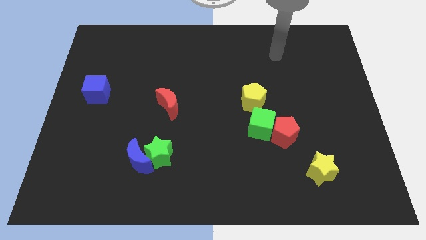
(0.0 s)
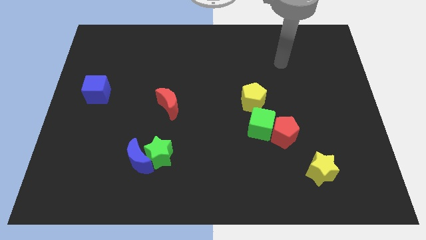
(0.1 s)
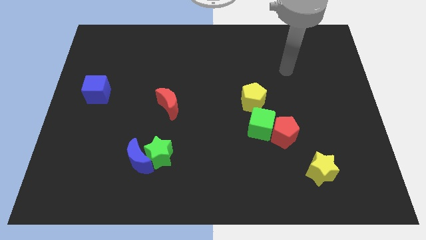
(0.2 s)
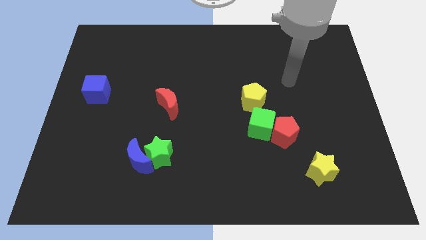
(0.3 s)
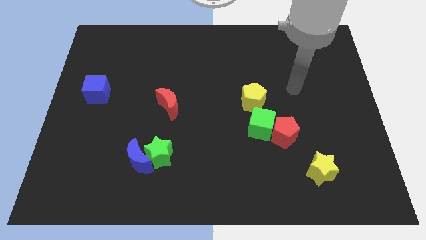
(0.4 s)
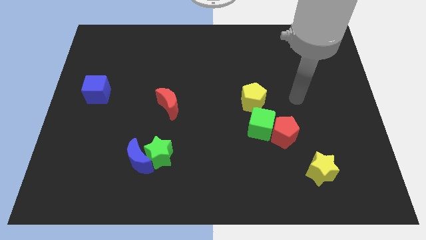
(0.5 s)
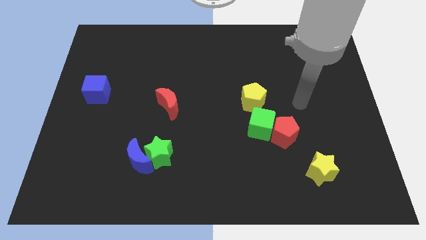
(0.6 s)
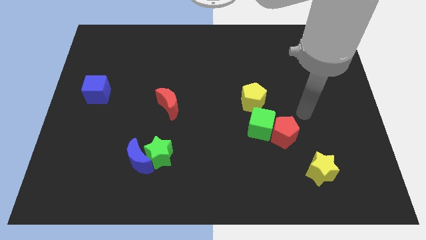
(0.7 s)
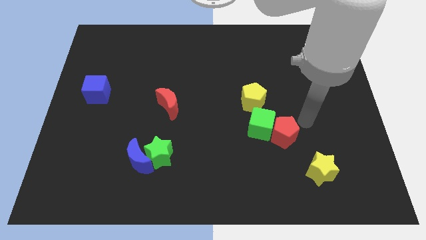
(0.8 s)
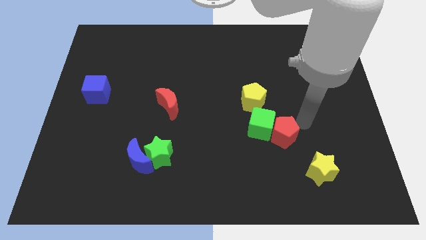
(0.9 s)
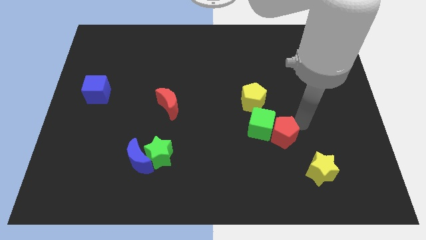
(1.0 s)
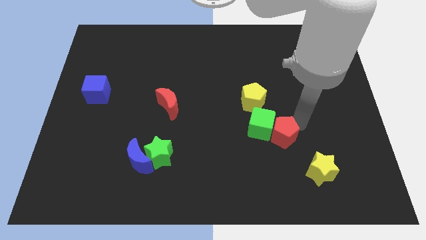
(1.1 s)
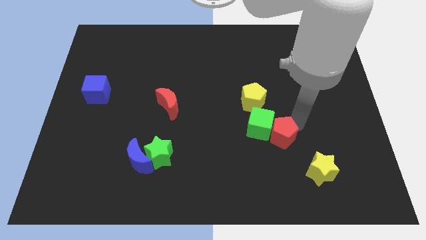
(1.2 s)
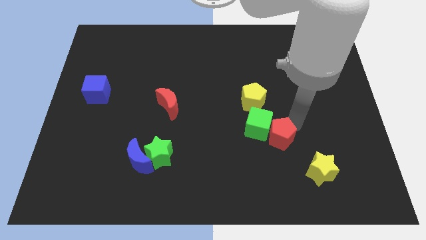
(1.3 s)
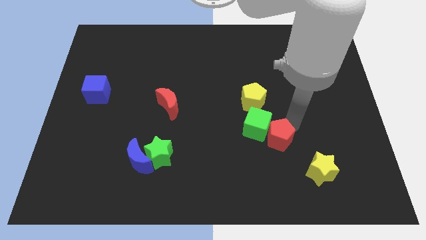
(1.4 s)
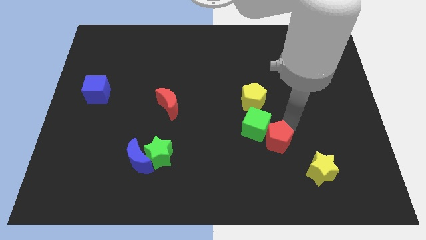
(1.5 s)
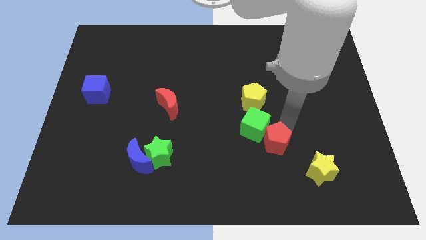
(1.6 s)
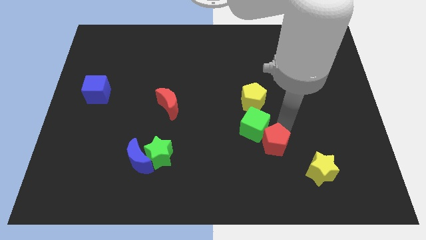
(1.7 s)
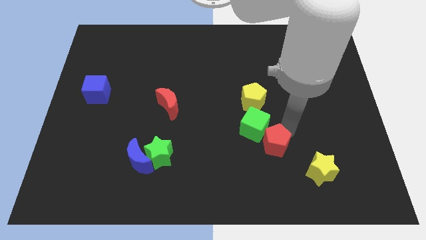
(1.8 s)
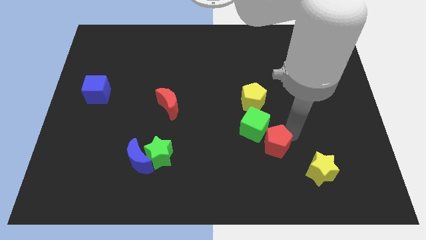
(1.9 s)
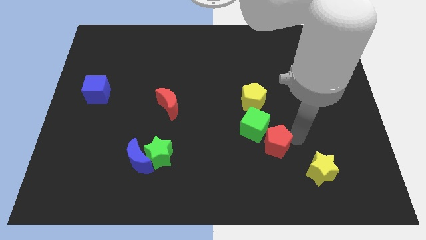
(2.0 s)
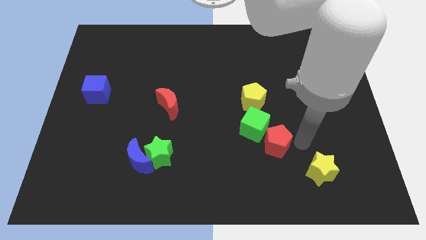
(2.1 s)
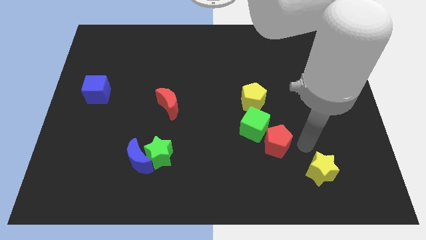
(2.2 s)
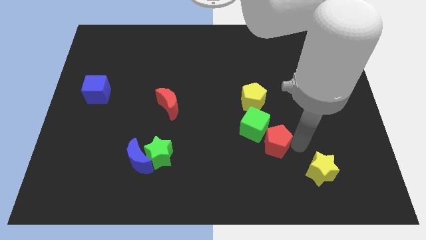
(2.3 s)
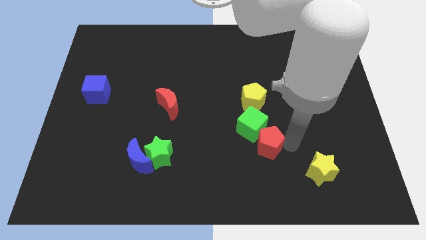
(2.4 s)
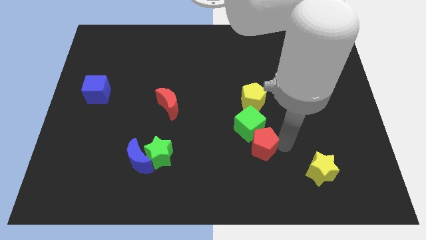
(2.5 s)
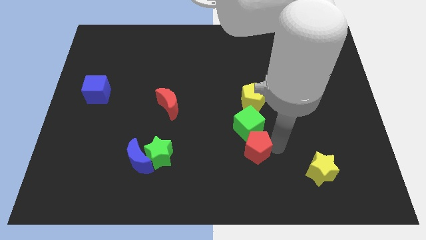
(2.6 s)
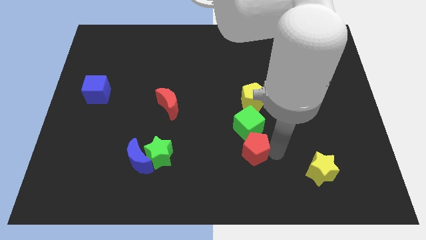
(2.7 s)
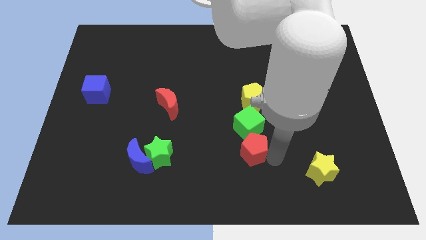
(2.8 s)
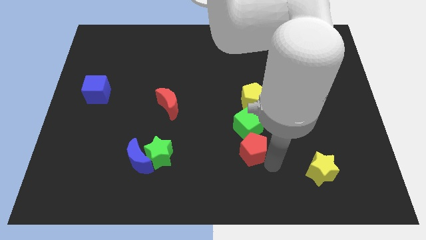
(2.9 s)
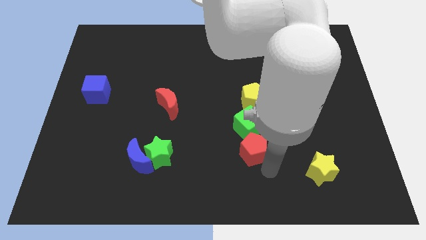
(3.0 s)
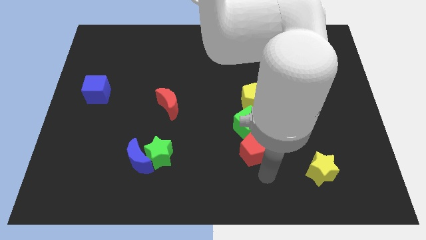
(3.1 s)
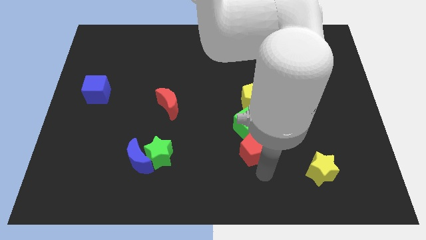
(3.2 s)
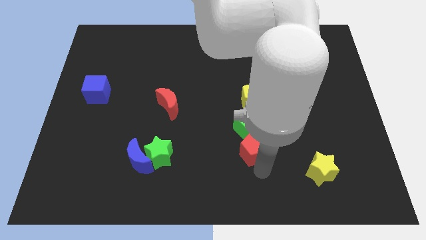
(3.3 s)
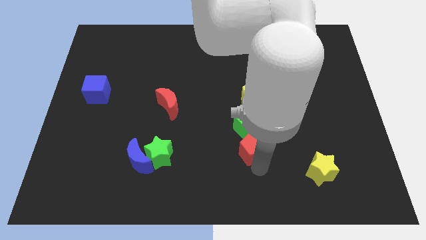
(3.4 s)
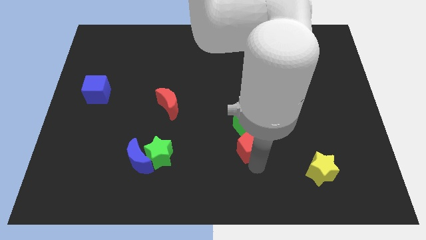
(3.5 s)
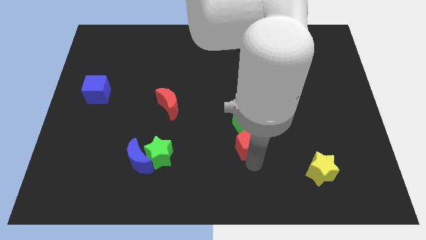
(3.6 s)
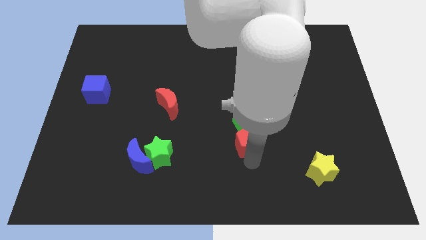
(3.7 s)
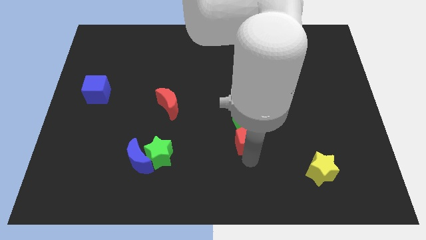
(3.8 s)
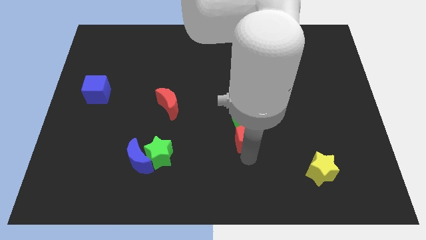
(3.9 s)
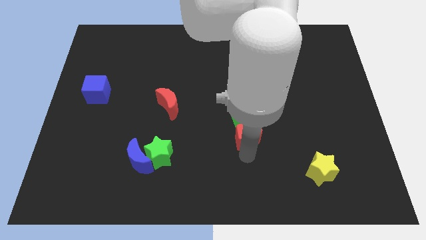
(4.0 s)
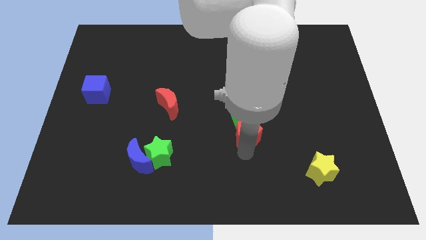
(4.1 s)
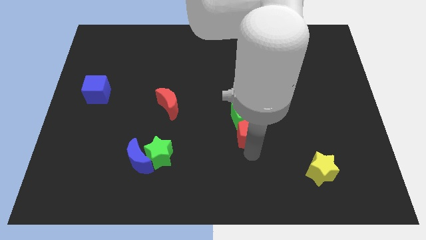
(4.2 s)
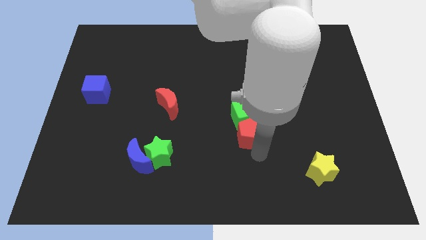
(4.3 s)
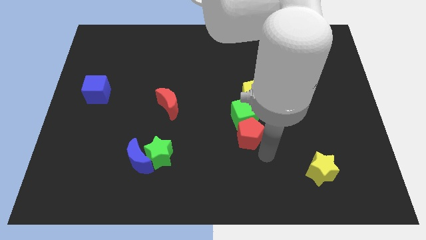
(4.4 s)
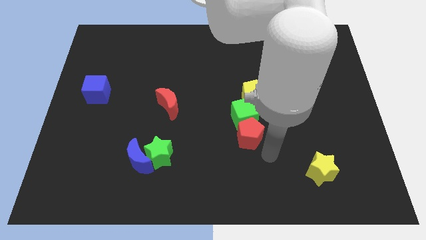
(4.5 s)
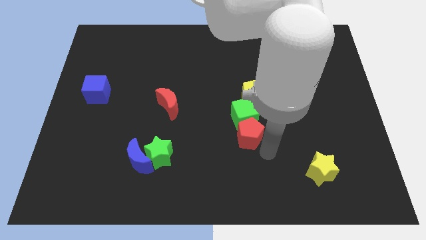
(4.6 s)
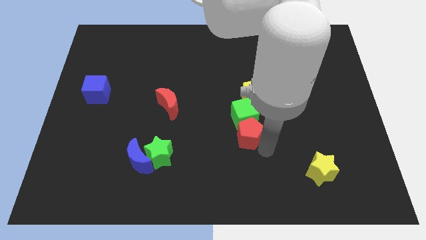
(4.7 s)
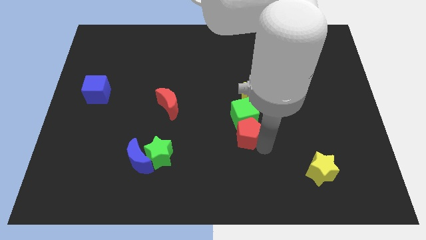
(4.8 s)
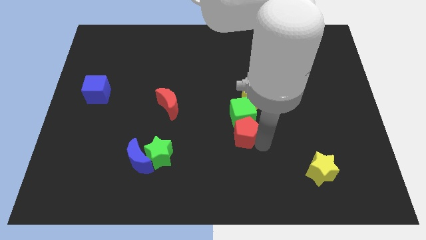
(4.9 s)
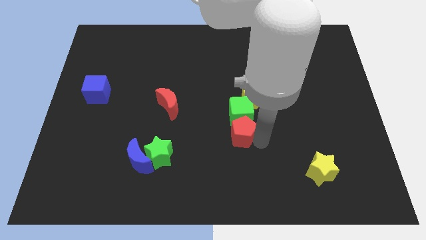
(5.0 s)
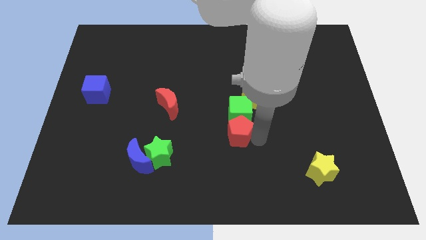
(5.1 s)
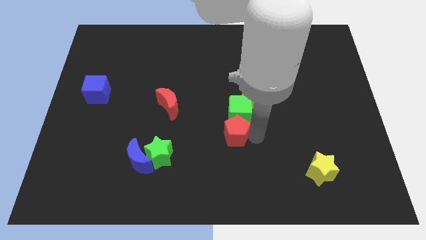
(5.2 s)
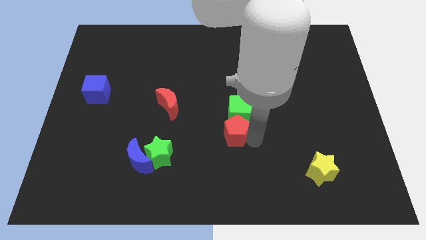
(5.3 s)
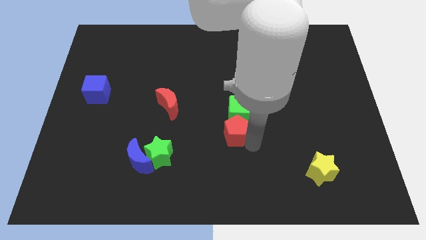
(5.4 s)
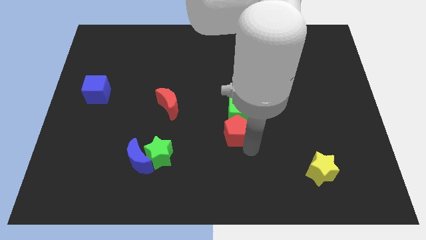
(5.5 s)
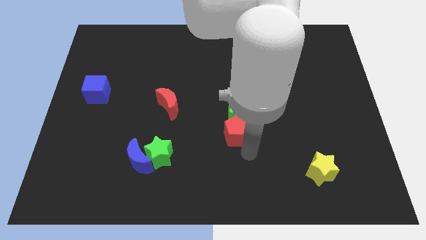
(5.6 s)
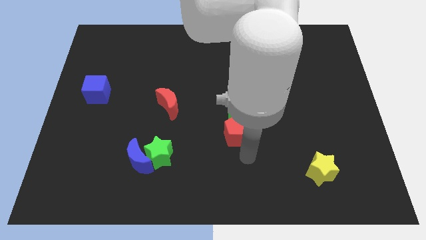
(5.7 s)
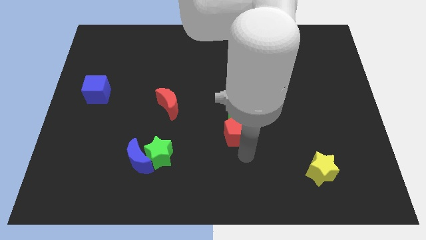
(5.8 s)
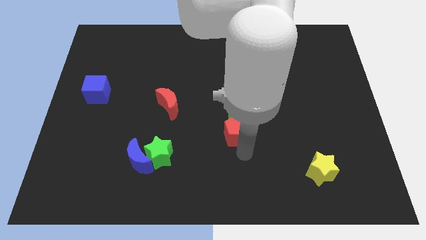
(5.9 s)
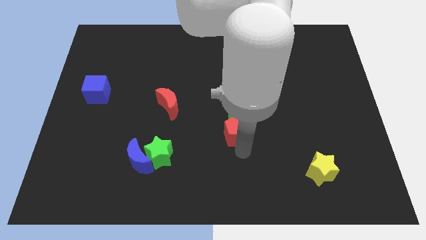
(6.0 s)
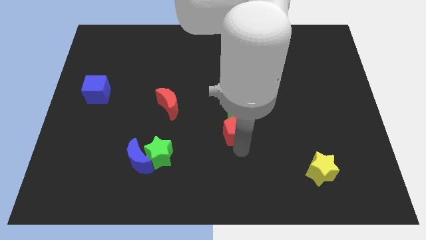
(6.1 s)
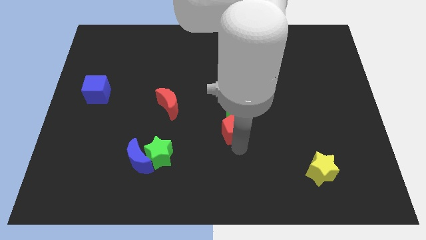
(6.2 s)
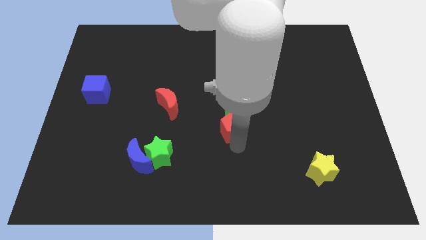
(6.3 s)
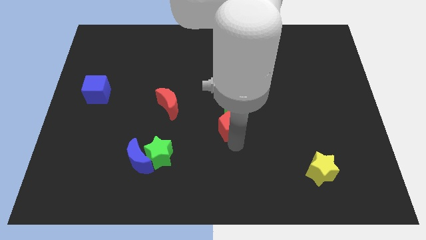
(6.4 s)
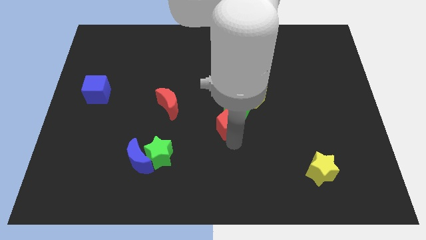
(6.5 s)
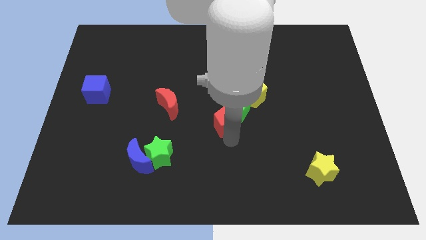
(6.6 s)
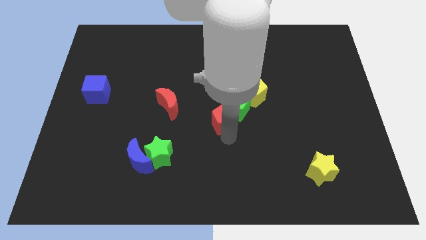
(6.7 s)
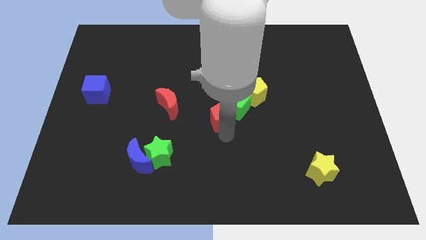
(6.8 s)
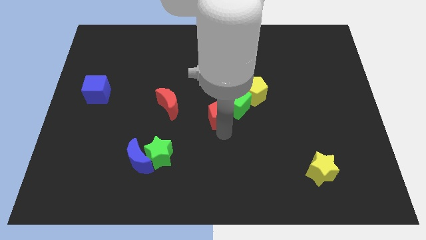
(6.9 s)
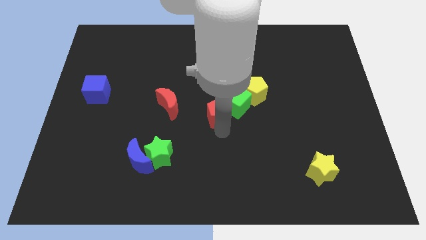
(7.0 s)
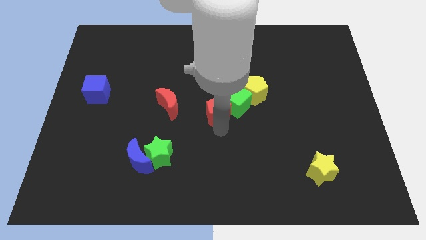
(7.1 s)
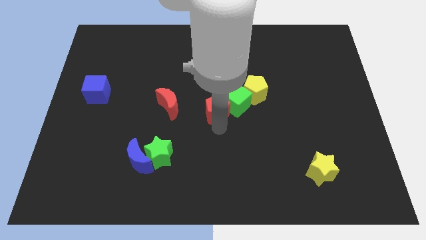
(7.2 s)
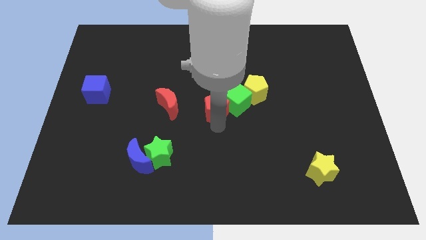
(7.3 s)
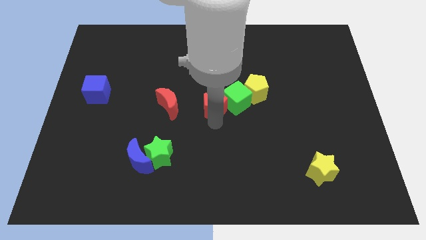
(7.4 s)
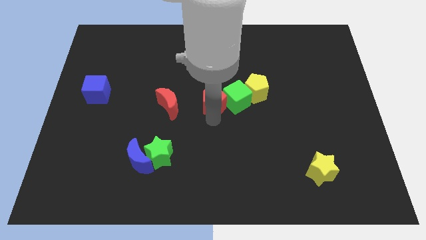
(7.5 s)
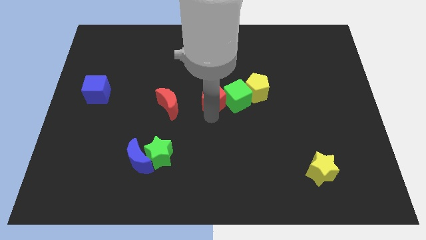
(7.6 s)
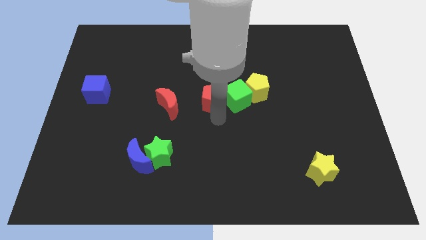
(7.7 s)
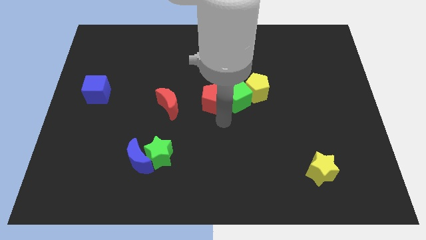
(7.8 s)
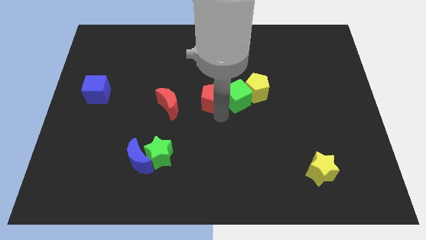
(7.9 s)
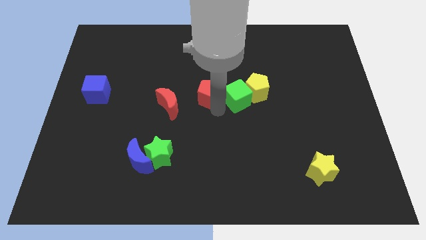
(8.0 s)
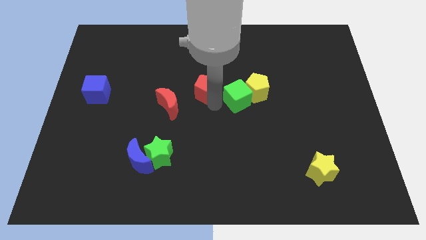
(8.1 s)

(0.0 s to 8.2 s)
slide the red pentagon upwards and left
